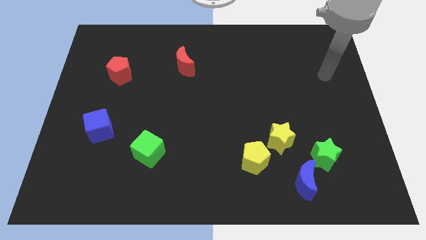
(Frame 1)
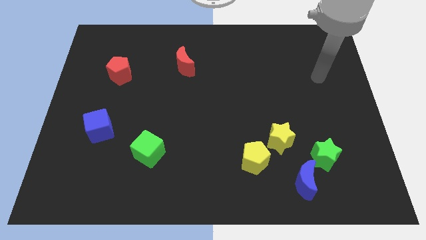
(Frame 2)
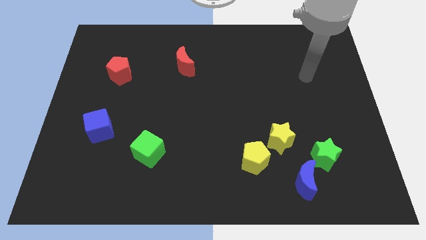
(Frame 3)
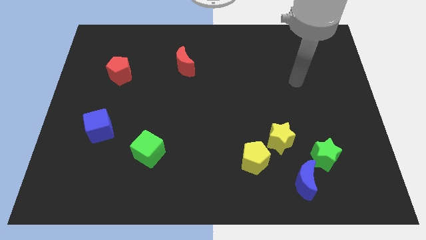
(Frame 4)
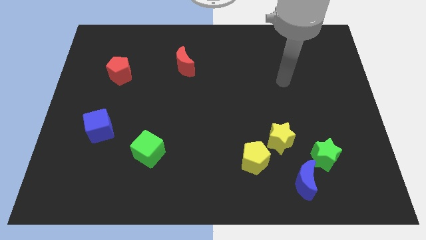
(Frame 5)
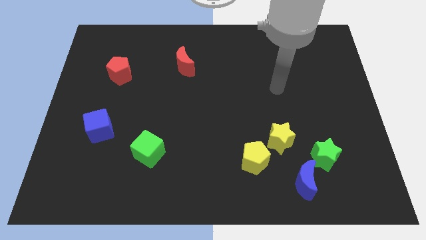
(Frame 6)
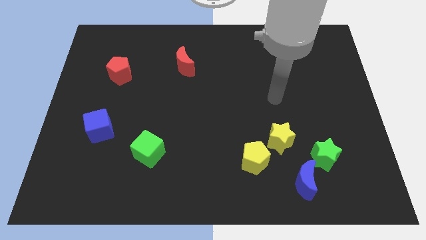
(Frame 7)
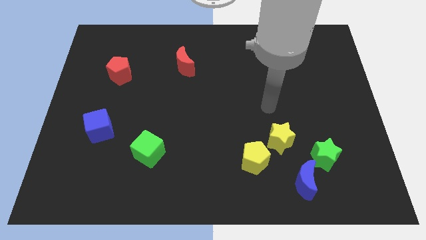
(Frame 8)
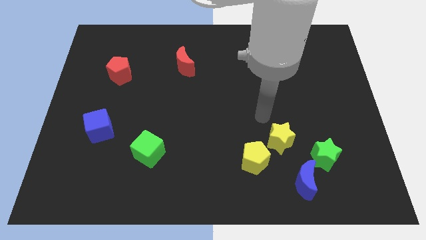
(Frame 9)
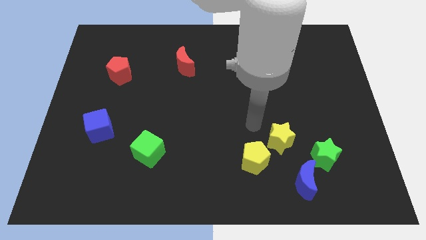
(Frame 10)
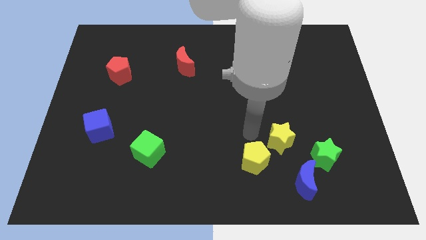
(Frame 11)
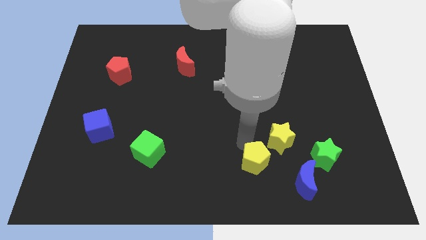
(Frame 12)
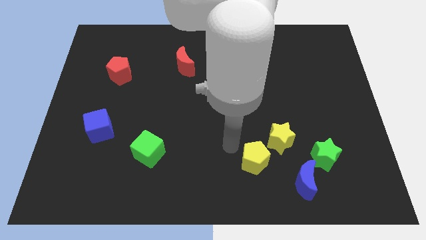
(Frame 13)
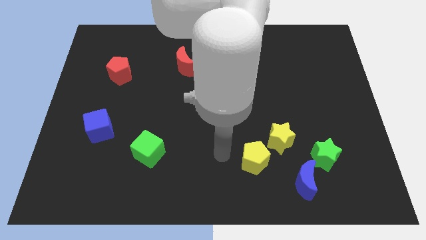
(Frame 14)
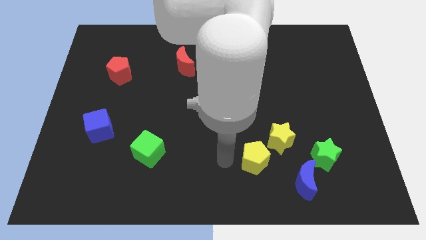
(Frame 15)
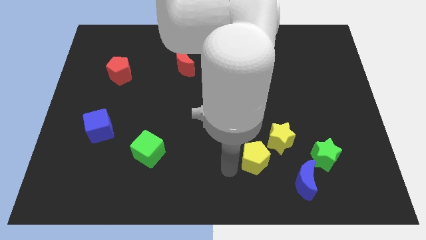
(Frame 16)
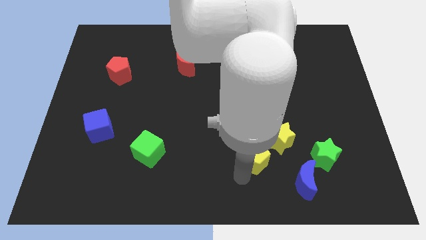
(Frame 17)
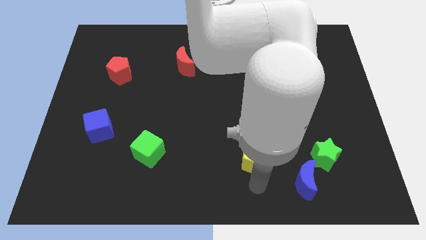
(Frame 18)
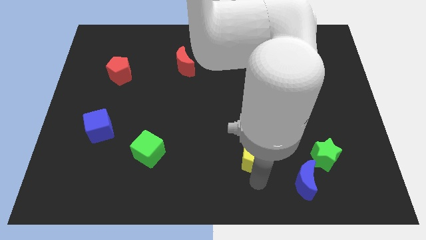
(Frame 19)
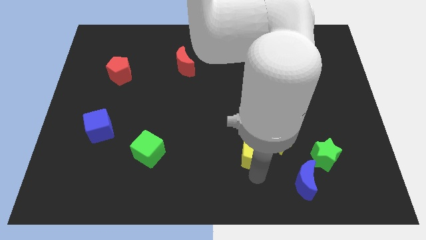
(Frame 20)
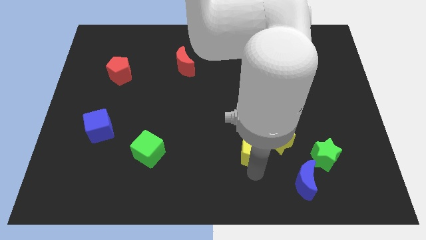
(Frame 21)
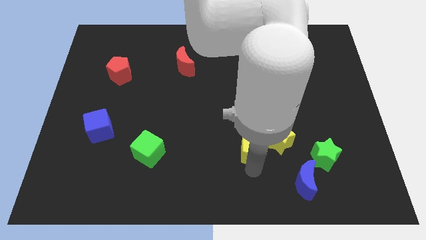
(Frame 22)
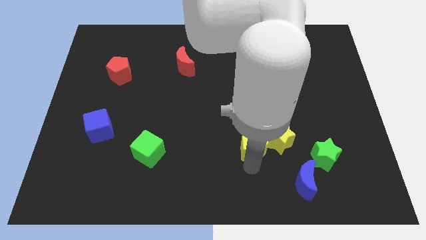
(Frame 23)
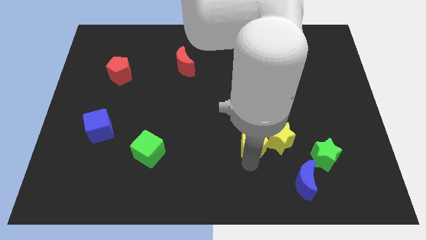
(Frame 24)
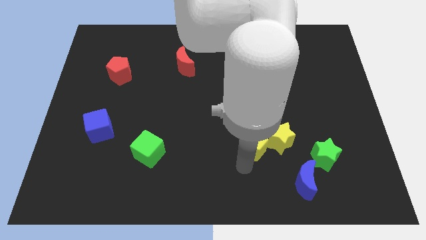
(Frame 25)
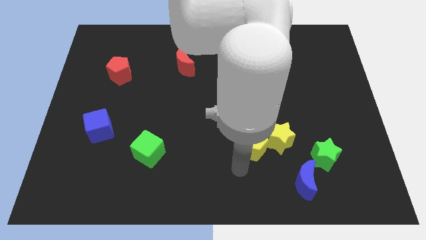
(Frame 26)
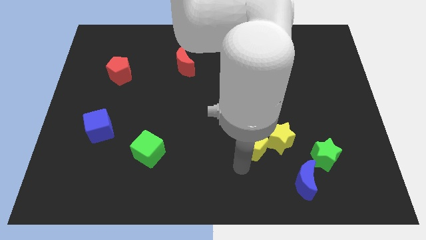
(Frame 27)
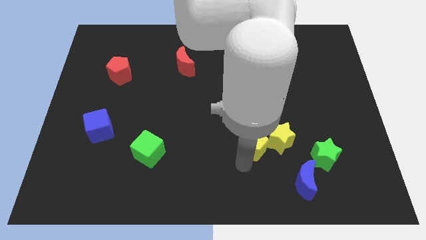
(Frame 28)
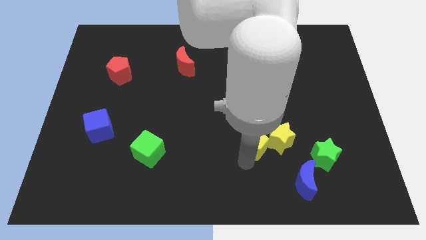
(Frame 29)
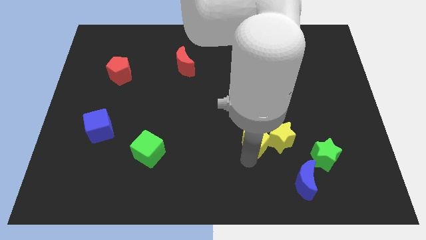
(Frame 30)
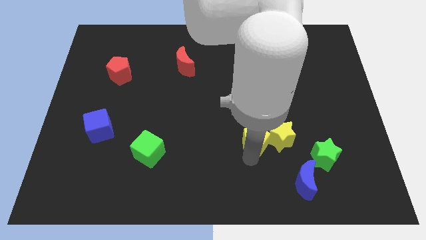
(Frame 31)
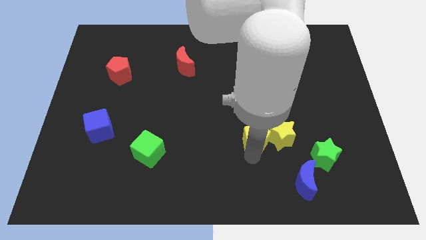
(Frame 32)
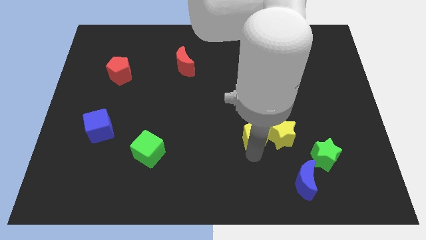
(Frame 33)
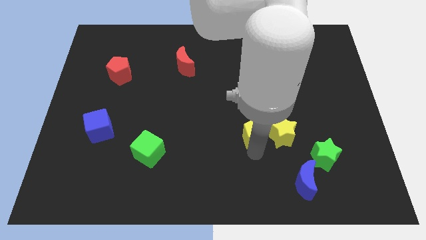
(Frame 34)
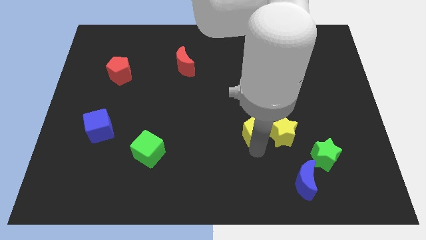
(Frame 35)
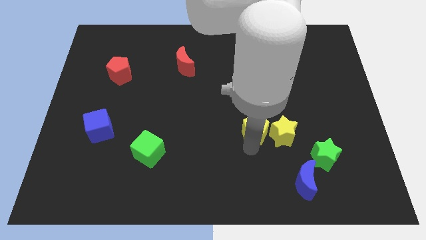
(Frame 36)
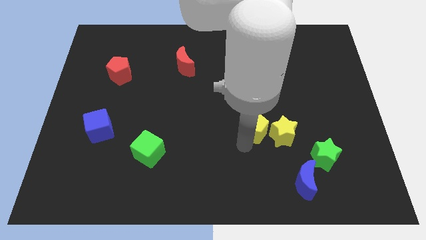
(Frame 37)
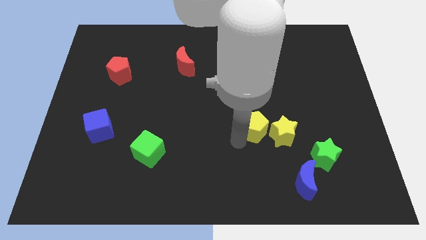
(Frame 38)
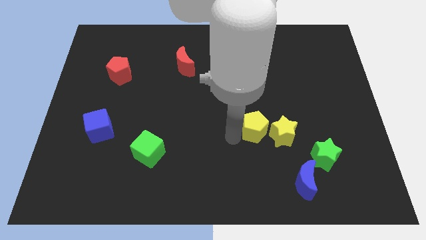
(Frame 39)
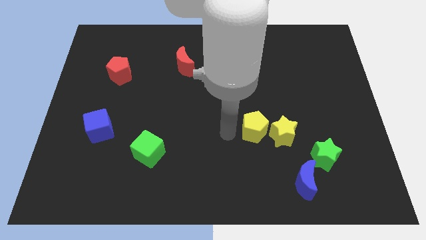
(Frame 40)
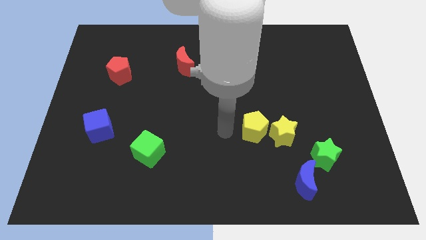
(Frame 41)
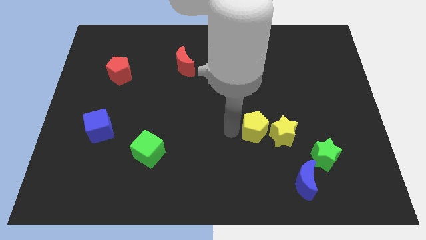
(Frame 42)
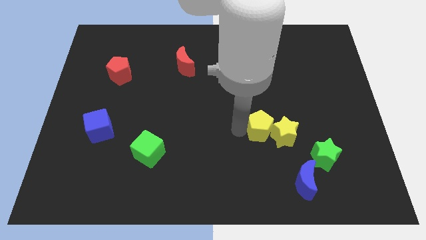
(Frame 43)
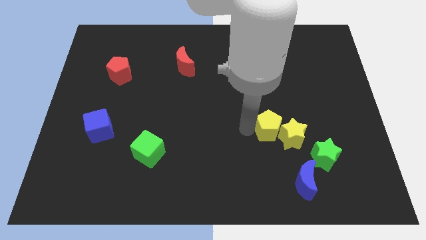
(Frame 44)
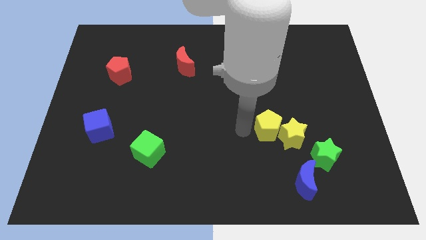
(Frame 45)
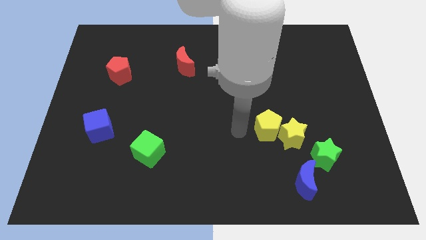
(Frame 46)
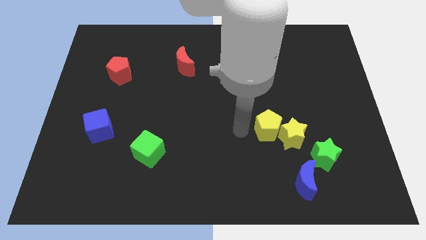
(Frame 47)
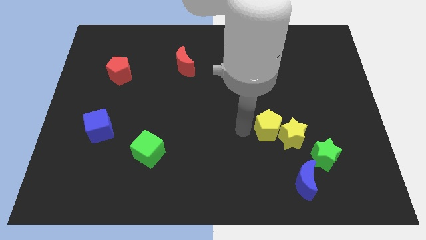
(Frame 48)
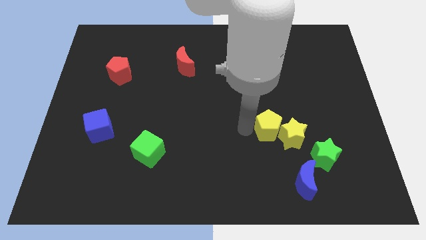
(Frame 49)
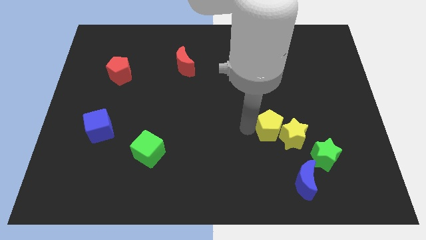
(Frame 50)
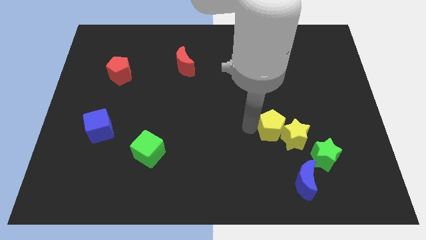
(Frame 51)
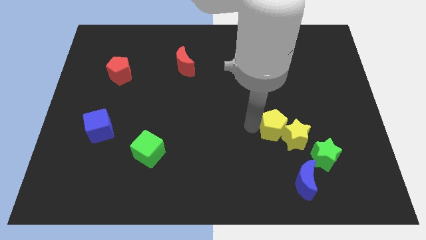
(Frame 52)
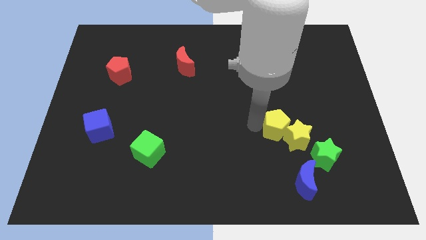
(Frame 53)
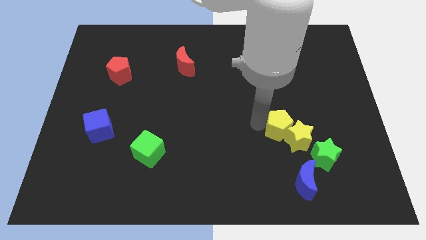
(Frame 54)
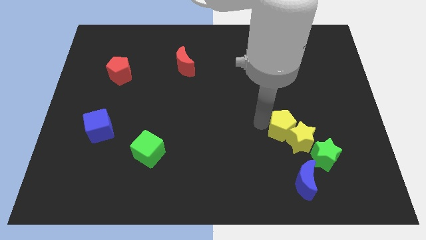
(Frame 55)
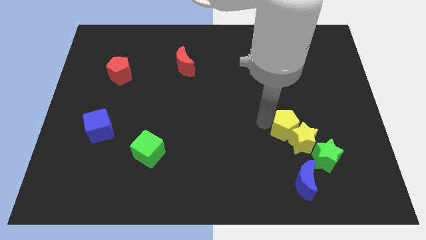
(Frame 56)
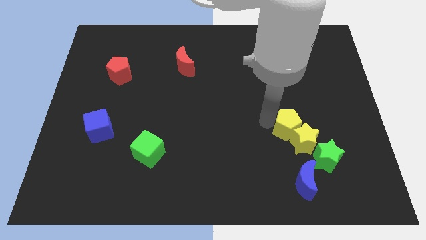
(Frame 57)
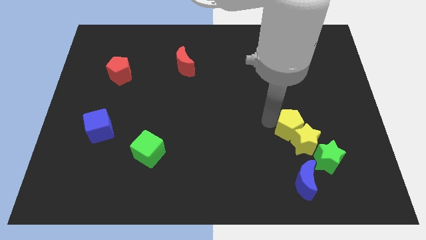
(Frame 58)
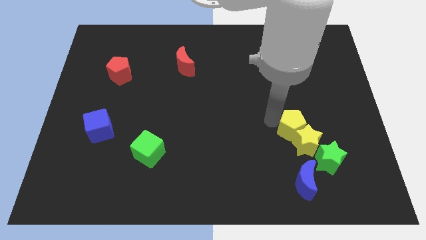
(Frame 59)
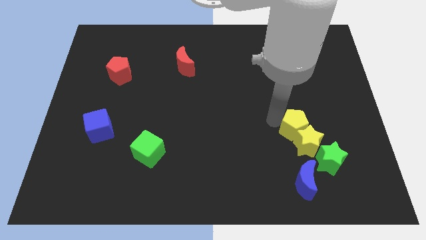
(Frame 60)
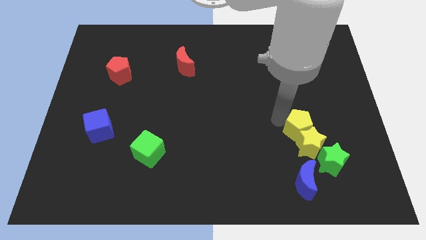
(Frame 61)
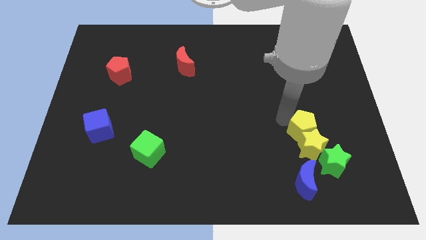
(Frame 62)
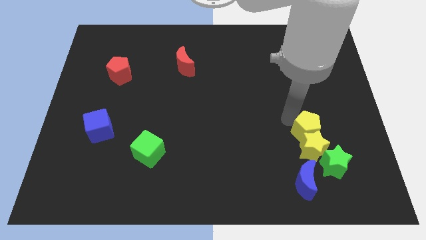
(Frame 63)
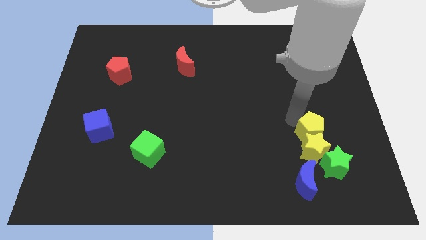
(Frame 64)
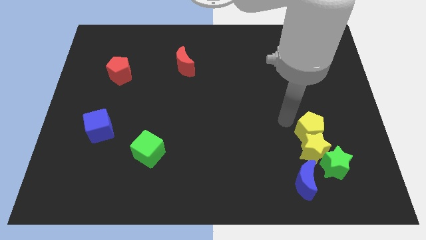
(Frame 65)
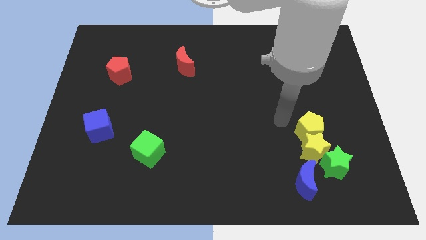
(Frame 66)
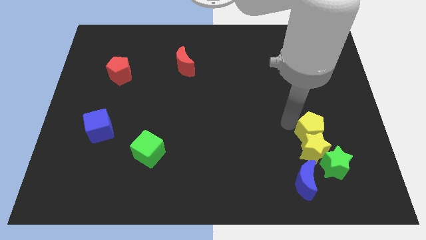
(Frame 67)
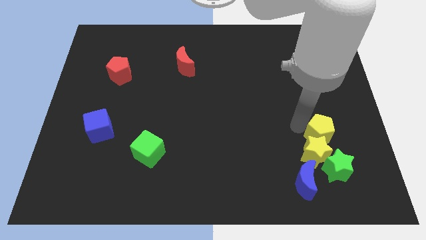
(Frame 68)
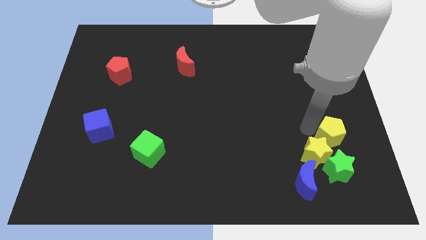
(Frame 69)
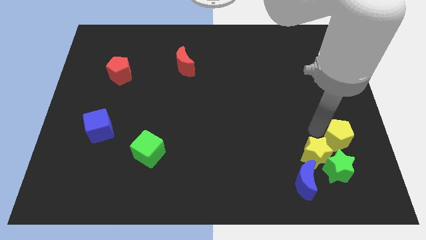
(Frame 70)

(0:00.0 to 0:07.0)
put the yellow pentagon to the top right of the green star

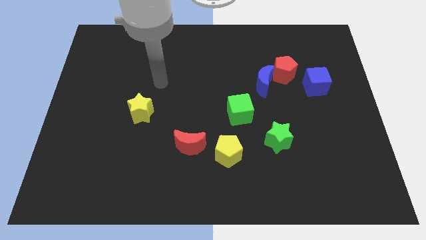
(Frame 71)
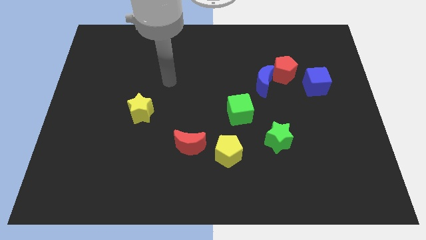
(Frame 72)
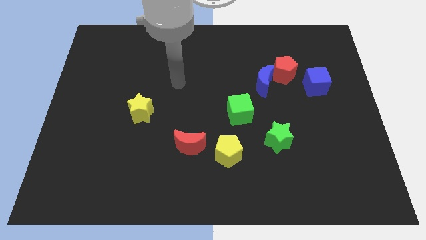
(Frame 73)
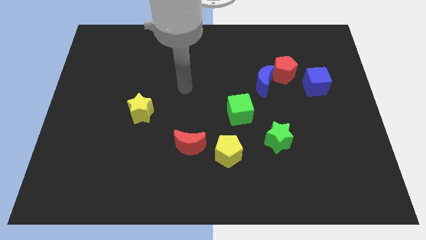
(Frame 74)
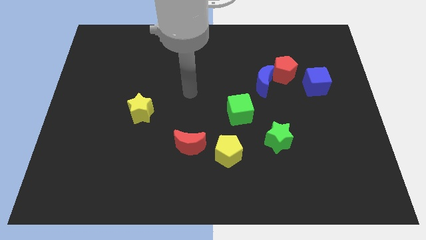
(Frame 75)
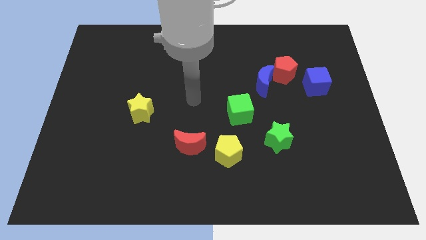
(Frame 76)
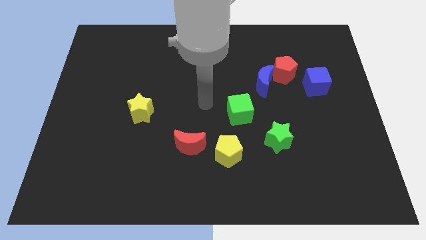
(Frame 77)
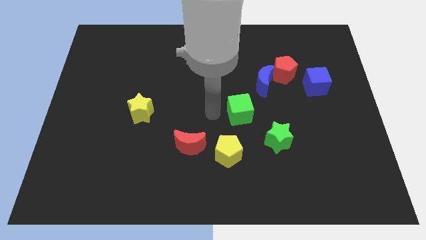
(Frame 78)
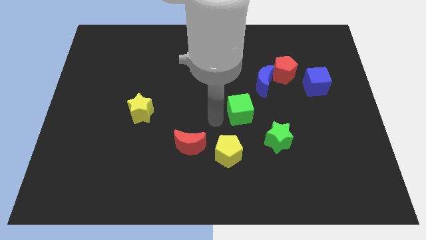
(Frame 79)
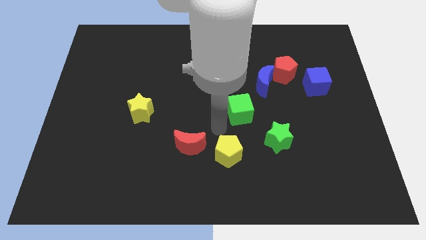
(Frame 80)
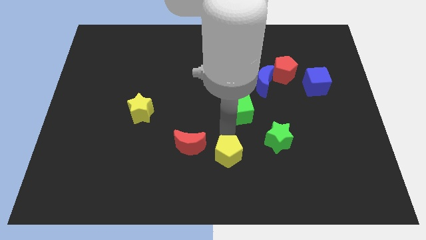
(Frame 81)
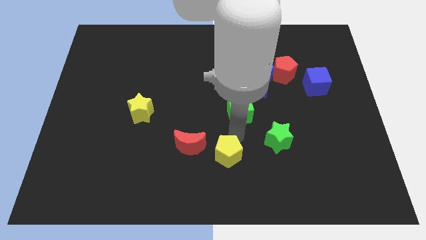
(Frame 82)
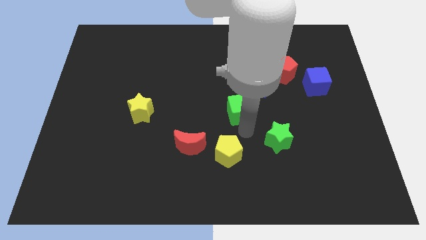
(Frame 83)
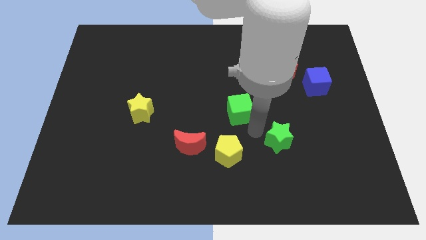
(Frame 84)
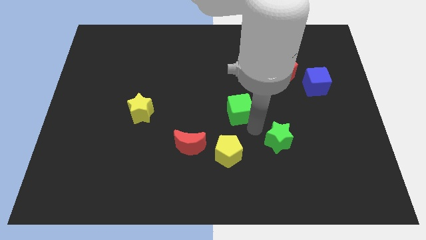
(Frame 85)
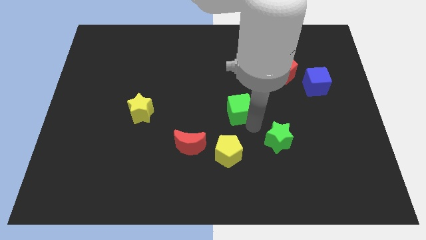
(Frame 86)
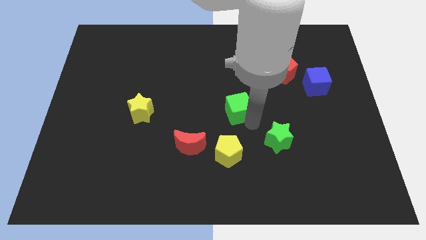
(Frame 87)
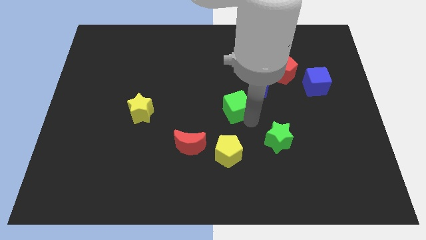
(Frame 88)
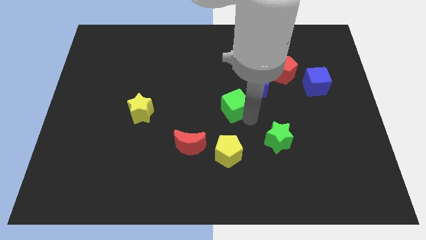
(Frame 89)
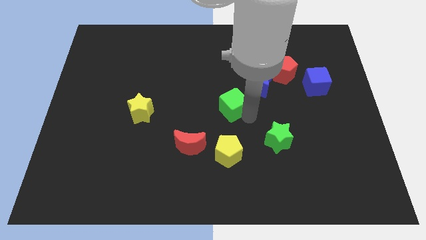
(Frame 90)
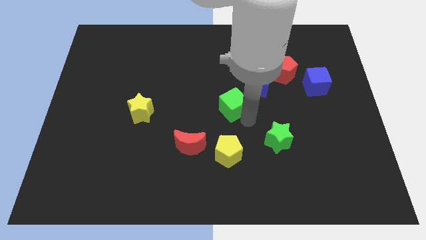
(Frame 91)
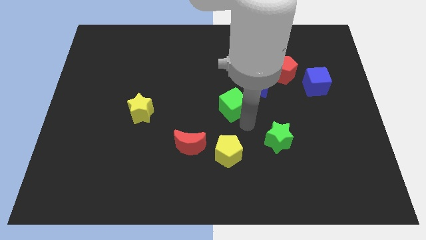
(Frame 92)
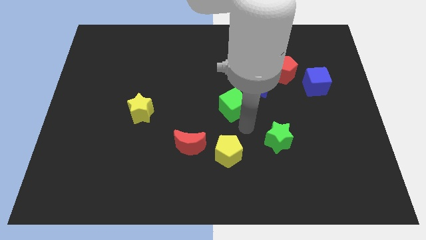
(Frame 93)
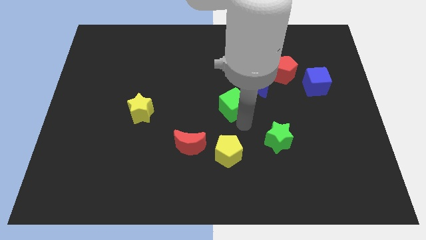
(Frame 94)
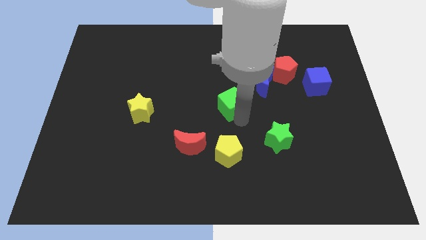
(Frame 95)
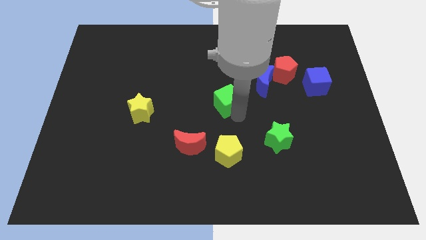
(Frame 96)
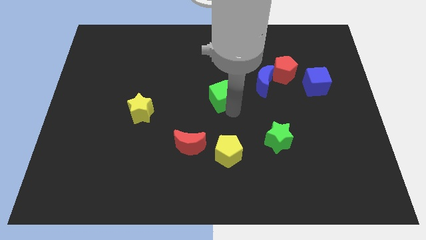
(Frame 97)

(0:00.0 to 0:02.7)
put the green cube left of the blue moon
